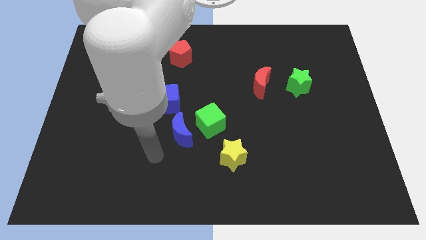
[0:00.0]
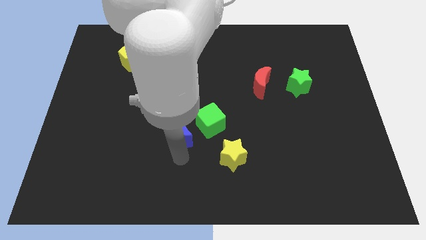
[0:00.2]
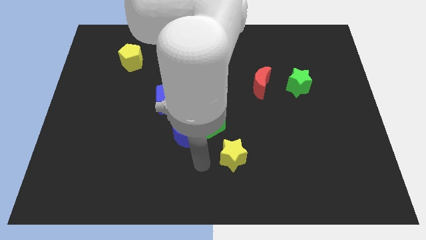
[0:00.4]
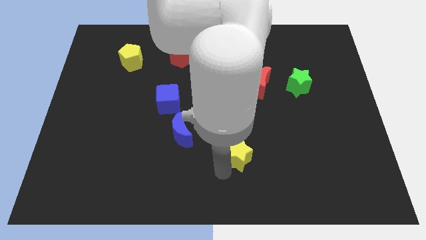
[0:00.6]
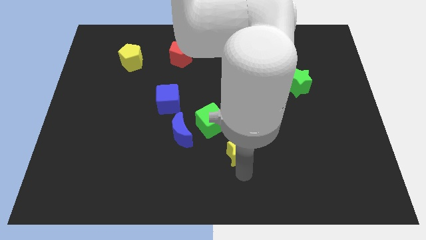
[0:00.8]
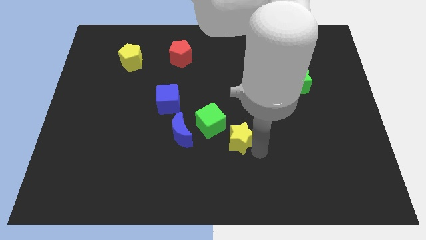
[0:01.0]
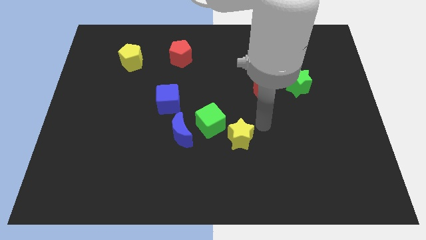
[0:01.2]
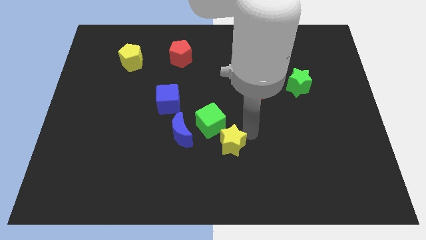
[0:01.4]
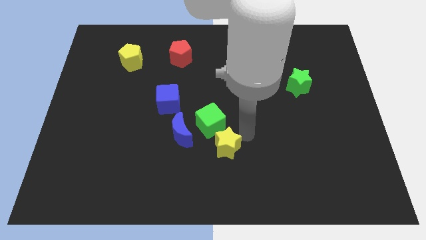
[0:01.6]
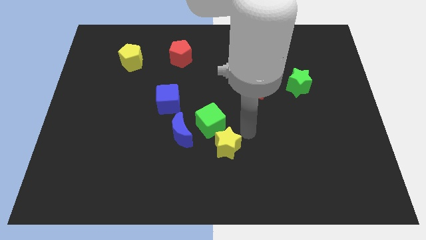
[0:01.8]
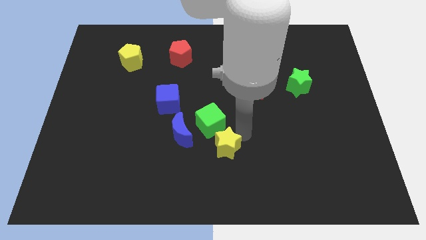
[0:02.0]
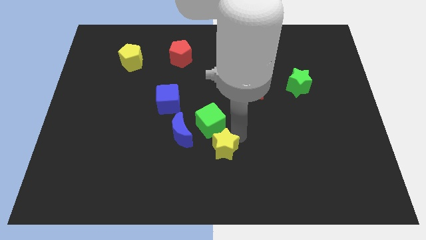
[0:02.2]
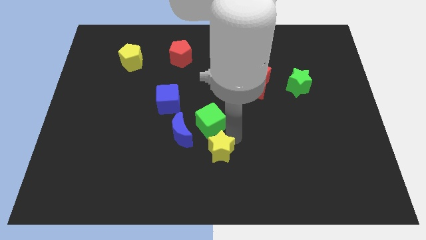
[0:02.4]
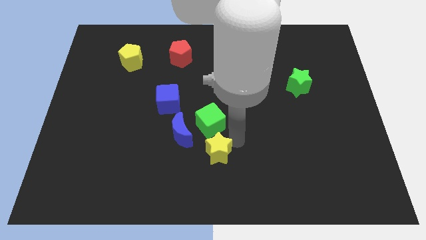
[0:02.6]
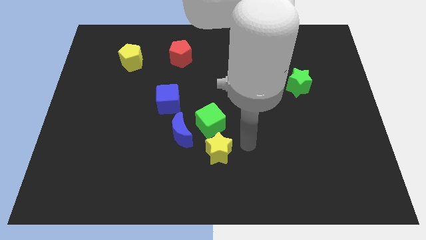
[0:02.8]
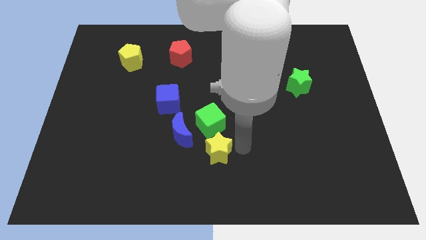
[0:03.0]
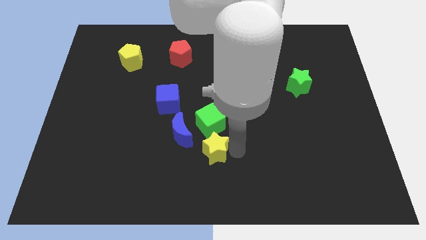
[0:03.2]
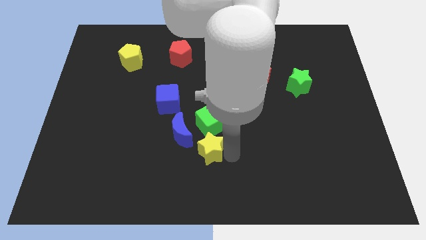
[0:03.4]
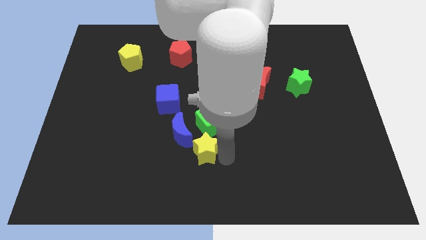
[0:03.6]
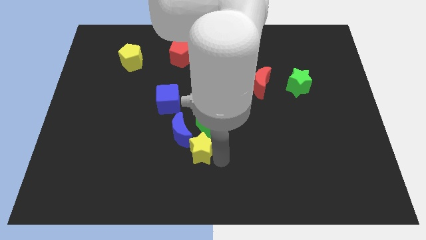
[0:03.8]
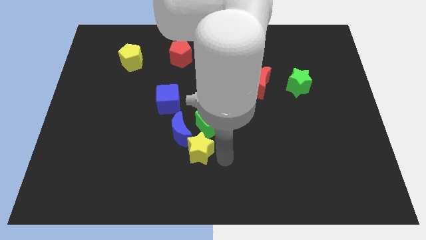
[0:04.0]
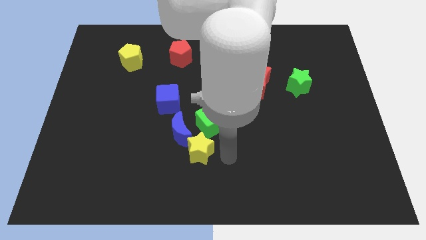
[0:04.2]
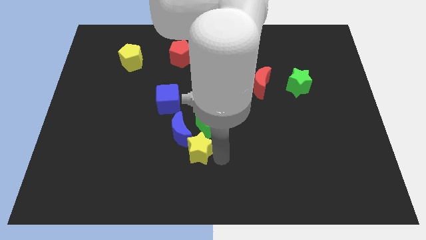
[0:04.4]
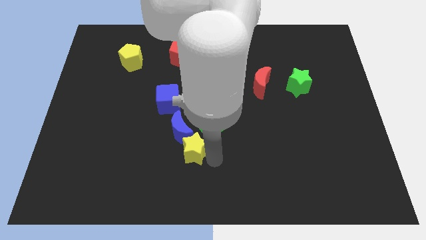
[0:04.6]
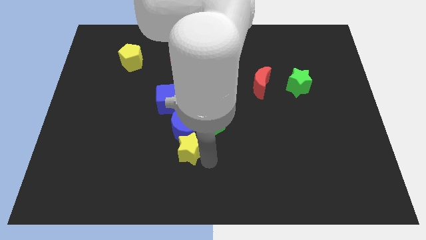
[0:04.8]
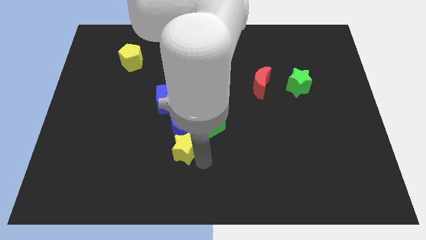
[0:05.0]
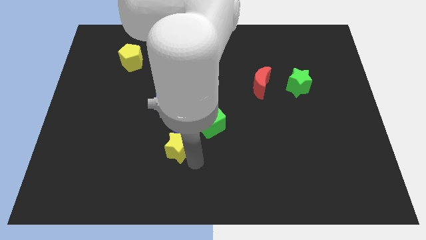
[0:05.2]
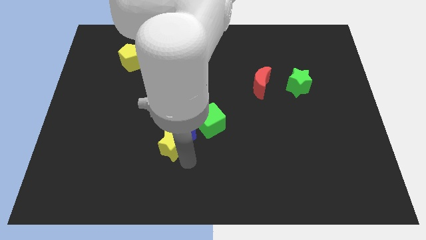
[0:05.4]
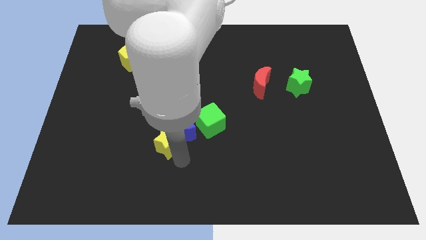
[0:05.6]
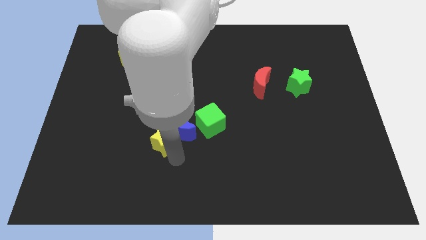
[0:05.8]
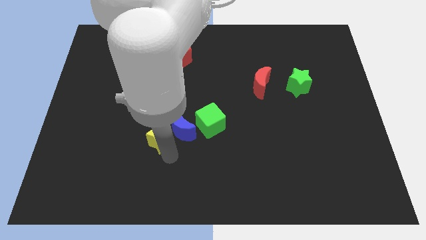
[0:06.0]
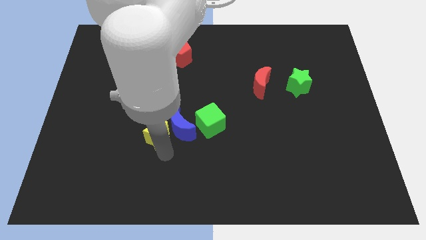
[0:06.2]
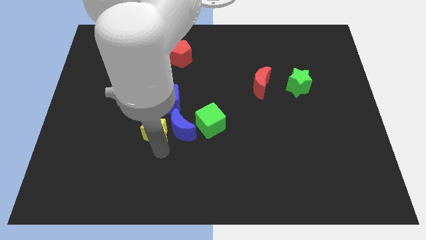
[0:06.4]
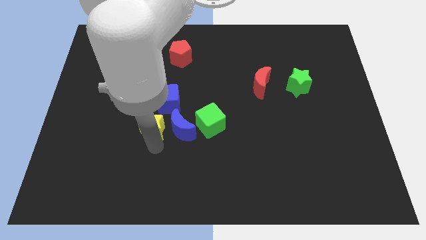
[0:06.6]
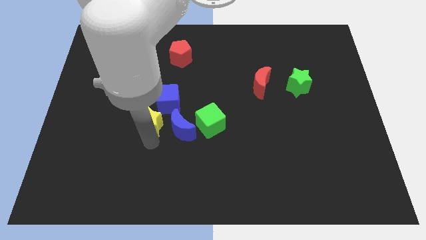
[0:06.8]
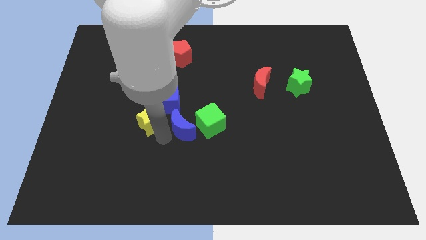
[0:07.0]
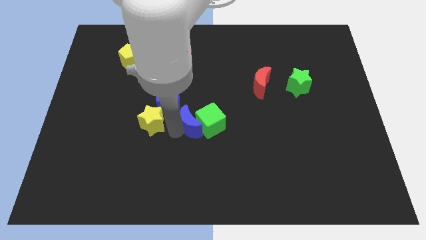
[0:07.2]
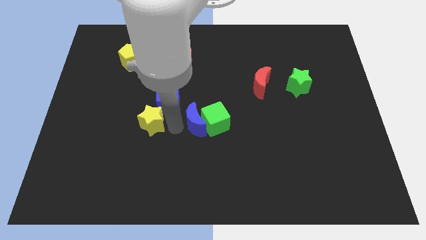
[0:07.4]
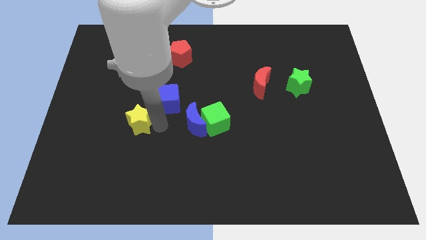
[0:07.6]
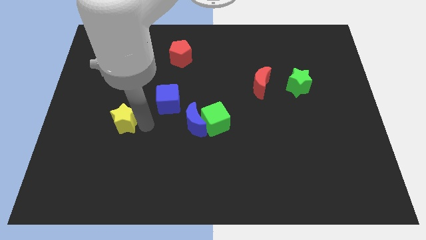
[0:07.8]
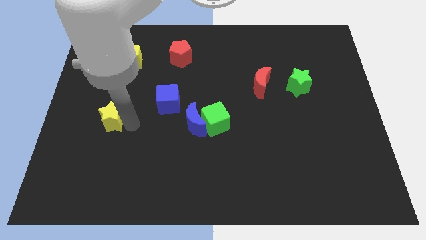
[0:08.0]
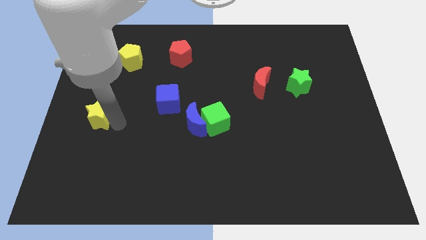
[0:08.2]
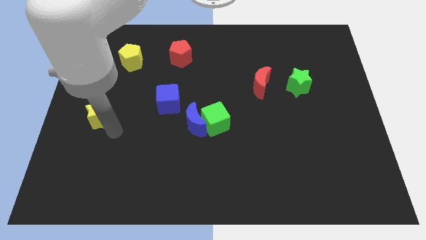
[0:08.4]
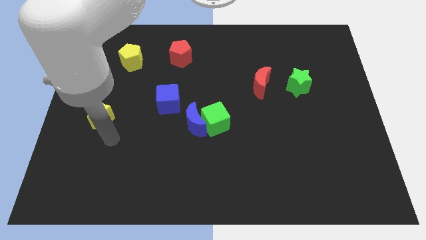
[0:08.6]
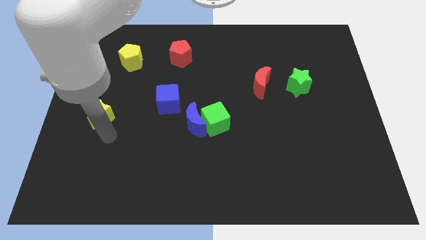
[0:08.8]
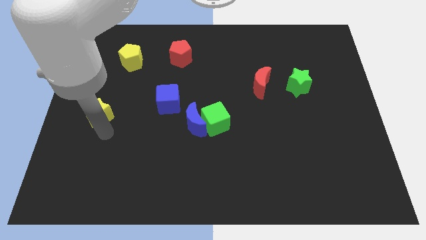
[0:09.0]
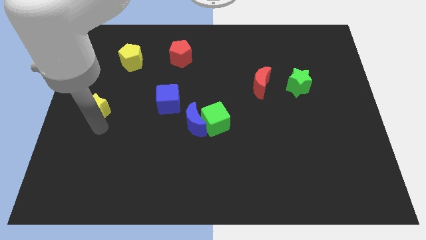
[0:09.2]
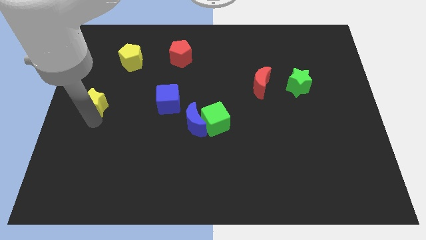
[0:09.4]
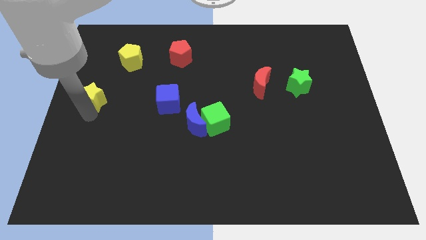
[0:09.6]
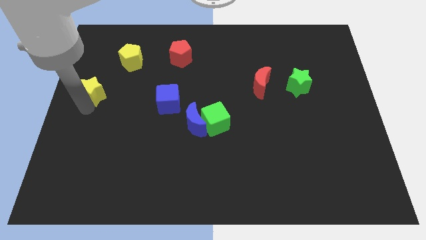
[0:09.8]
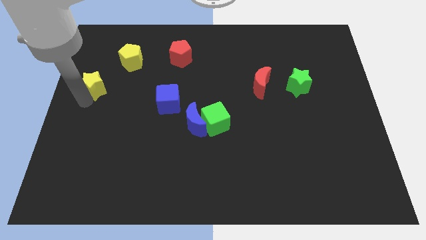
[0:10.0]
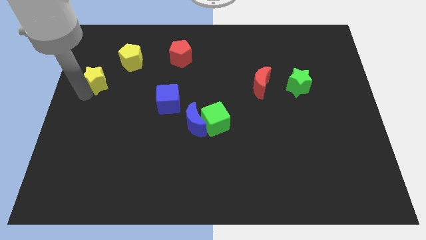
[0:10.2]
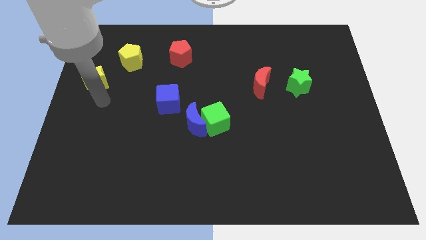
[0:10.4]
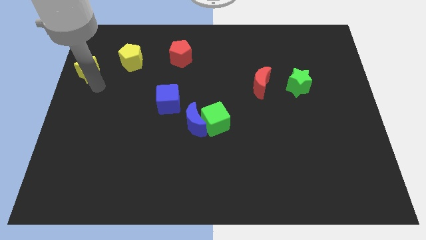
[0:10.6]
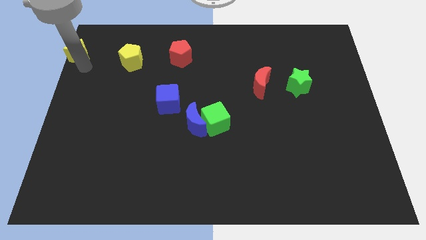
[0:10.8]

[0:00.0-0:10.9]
slide the yellow star to the top left of the board
